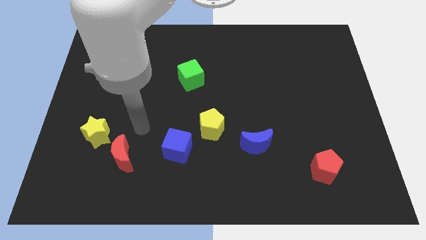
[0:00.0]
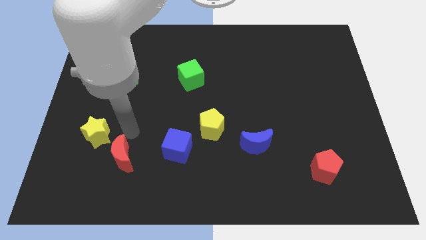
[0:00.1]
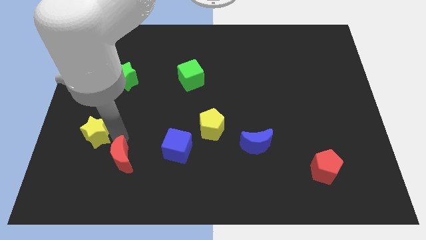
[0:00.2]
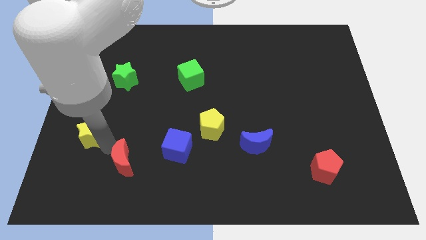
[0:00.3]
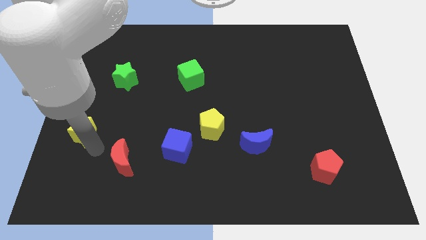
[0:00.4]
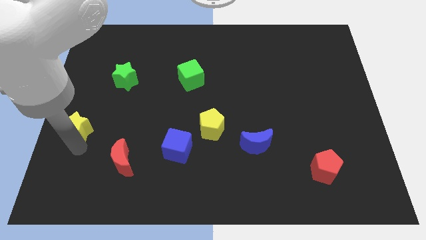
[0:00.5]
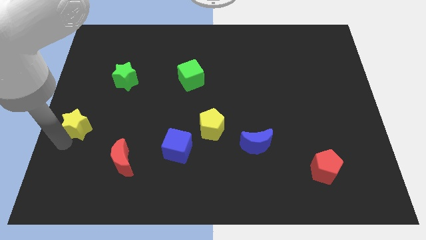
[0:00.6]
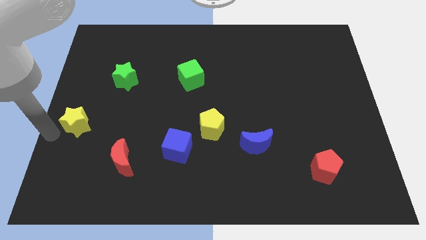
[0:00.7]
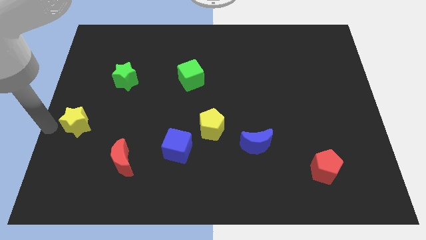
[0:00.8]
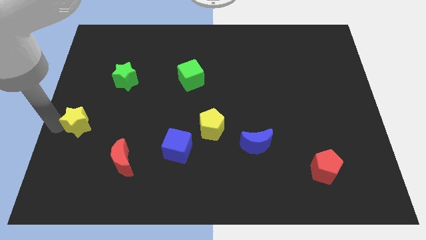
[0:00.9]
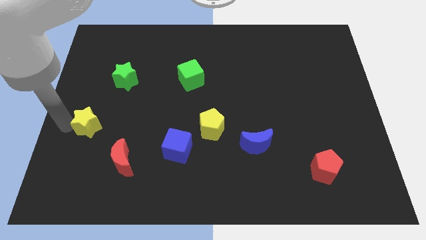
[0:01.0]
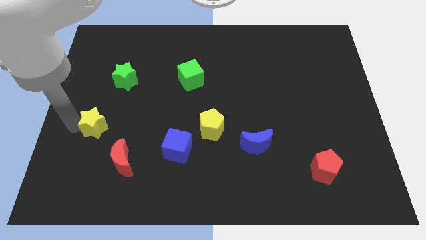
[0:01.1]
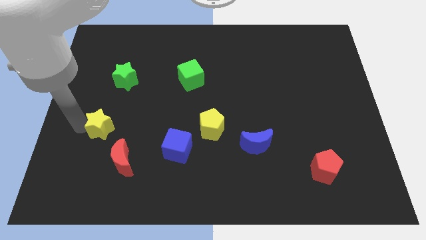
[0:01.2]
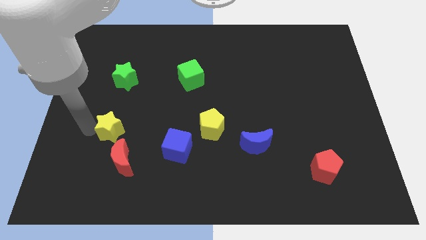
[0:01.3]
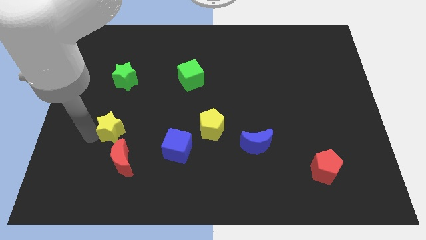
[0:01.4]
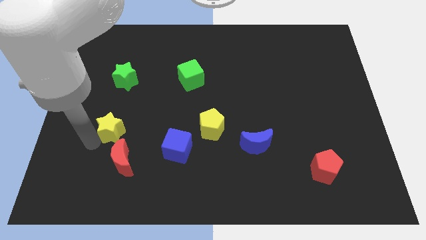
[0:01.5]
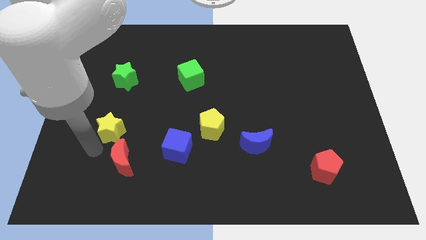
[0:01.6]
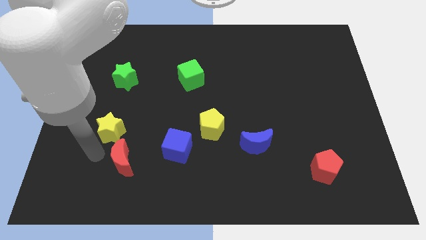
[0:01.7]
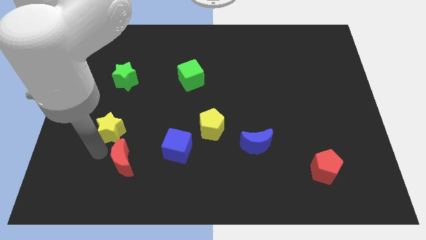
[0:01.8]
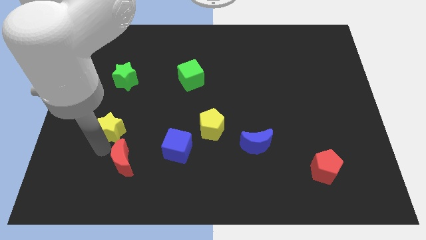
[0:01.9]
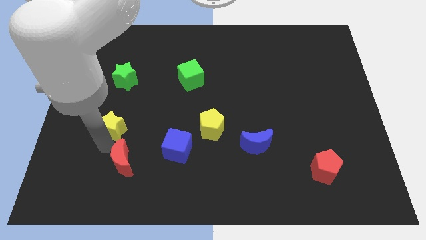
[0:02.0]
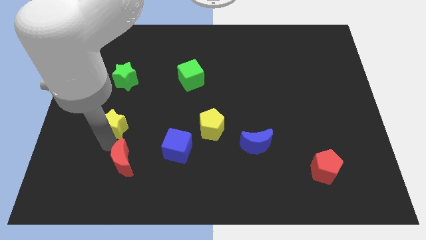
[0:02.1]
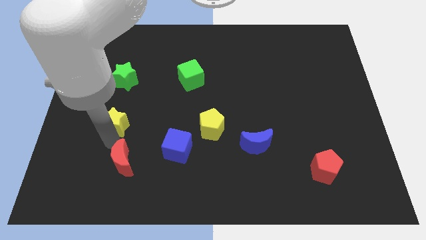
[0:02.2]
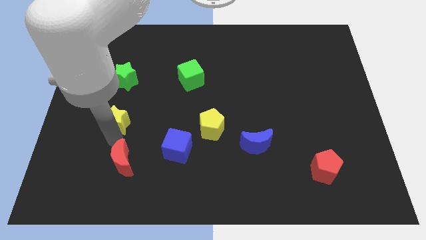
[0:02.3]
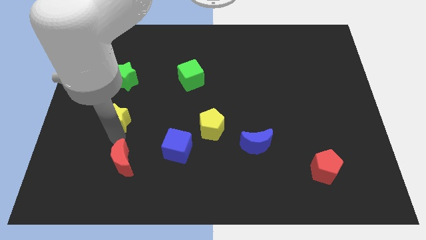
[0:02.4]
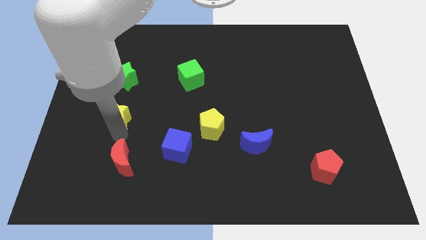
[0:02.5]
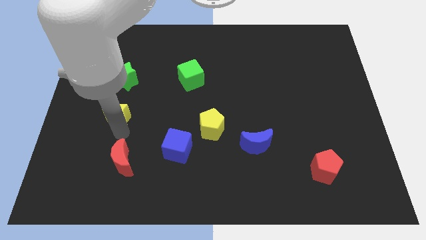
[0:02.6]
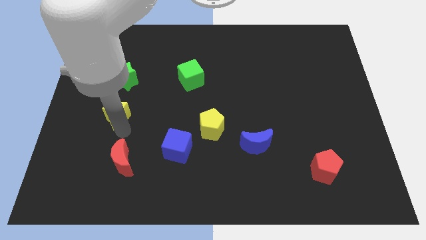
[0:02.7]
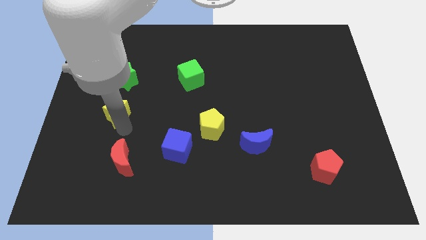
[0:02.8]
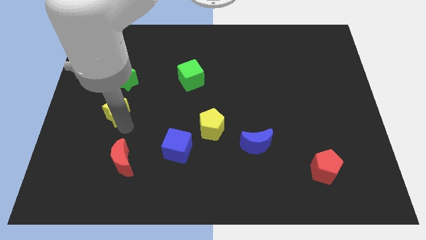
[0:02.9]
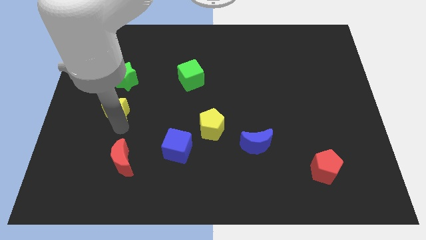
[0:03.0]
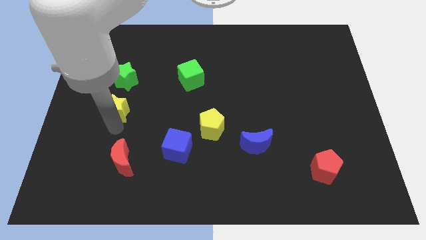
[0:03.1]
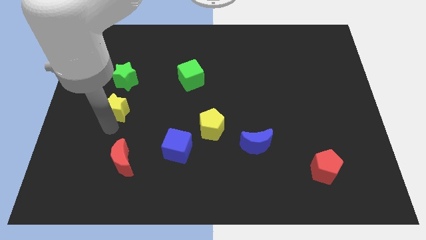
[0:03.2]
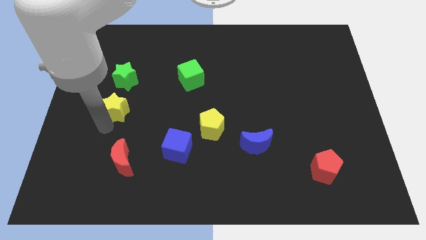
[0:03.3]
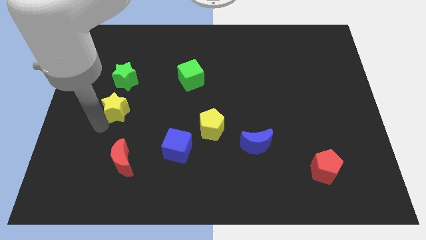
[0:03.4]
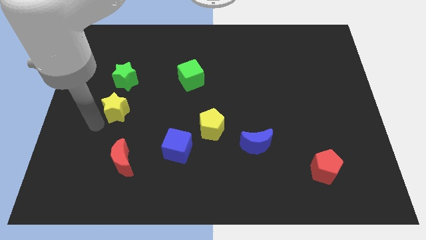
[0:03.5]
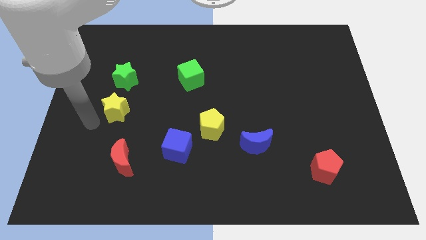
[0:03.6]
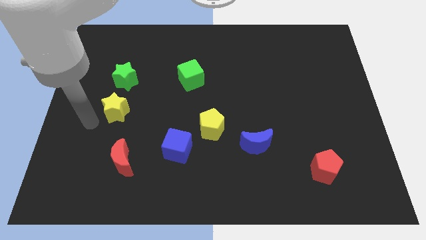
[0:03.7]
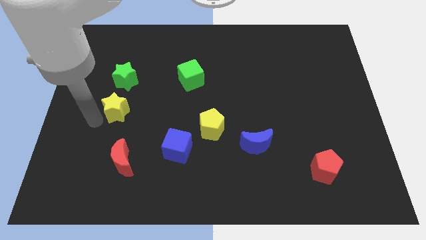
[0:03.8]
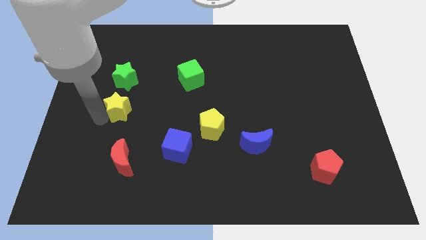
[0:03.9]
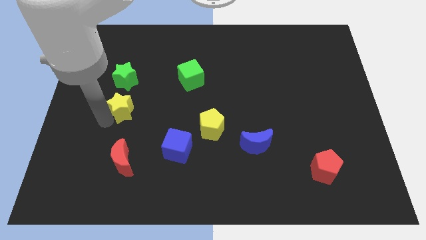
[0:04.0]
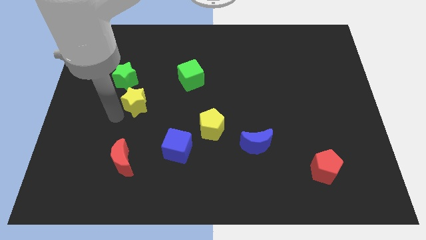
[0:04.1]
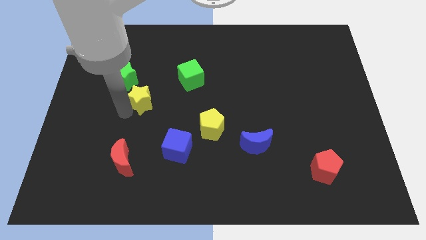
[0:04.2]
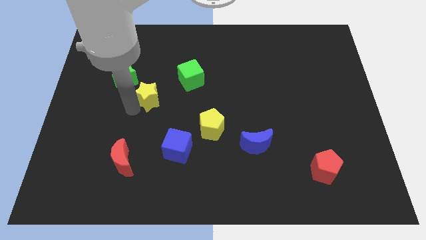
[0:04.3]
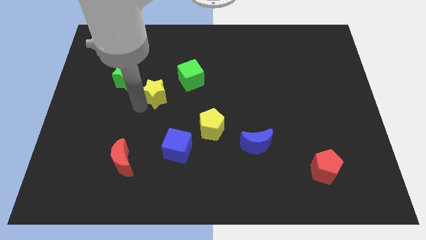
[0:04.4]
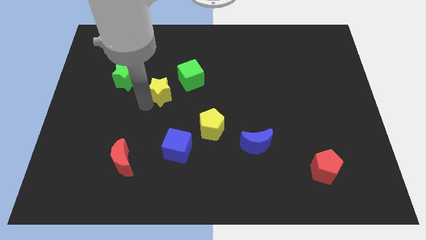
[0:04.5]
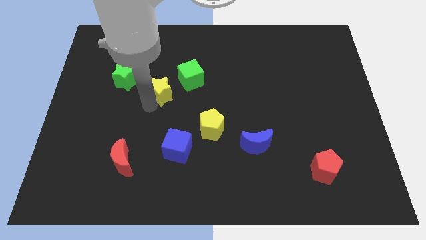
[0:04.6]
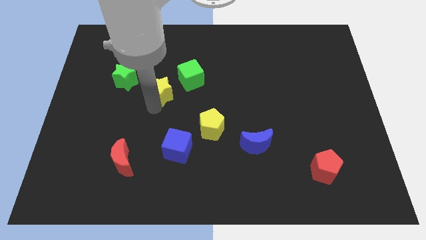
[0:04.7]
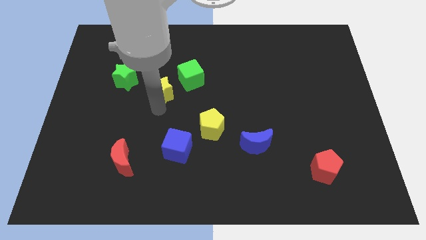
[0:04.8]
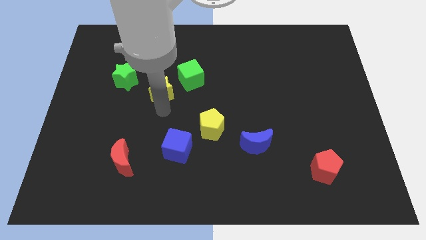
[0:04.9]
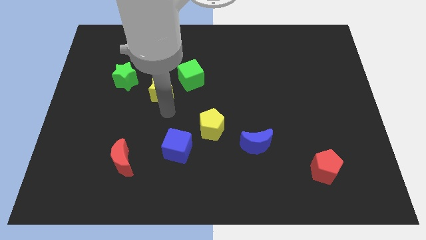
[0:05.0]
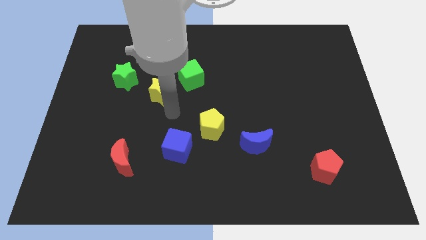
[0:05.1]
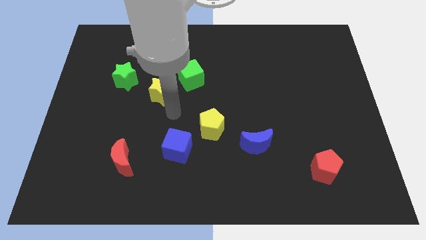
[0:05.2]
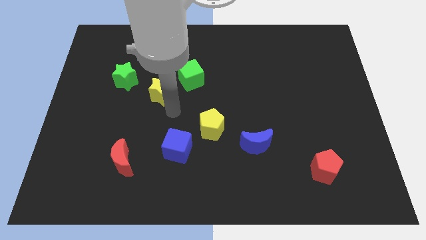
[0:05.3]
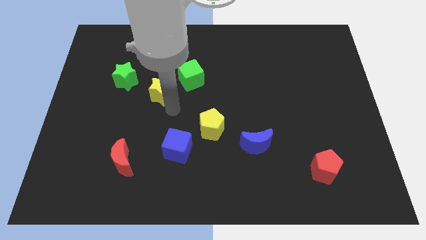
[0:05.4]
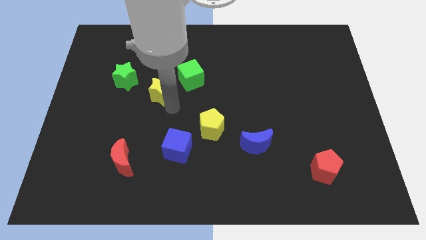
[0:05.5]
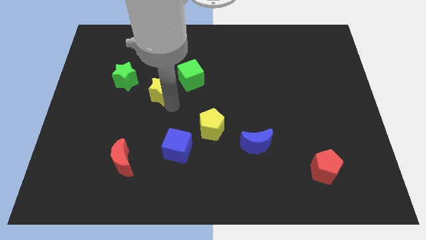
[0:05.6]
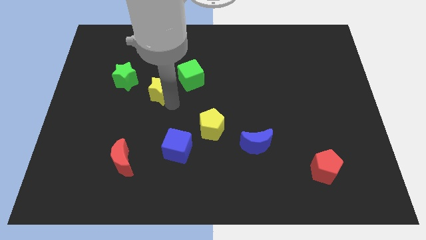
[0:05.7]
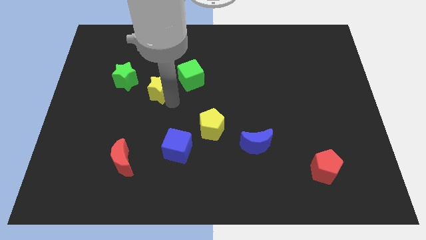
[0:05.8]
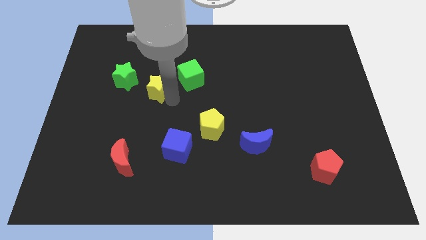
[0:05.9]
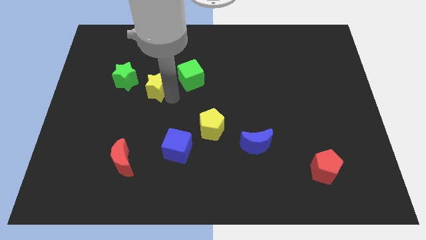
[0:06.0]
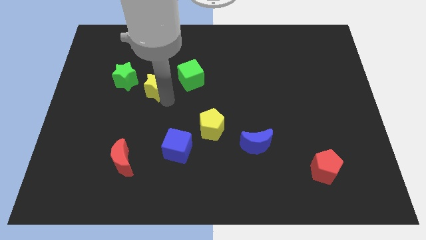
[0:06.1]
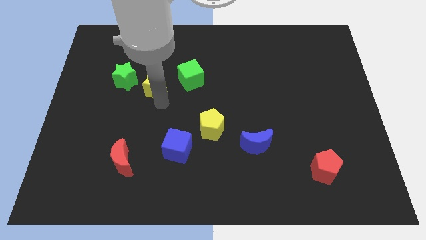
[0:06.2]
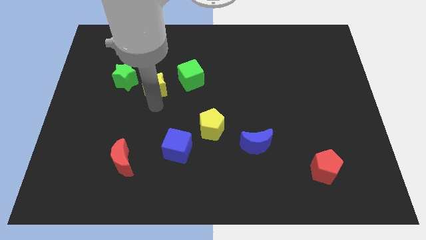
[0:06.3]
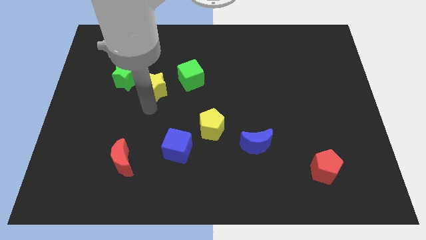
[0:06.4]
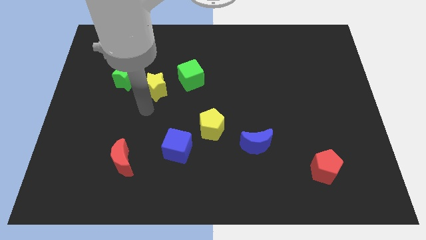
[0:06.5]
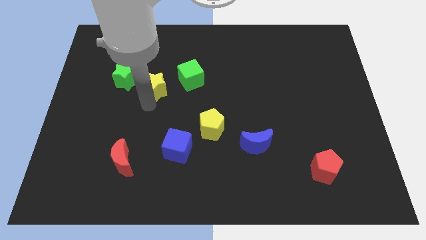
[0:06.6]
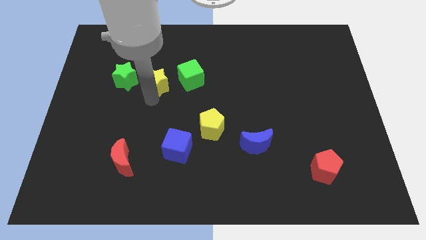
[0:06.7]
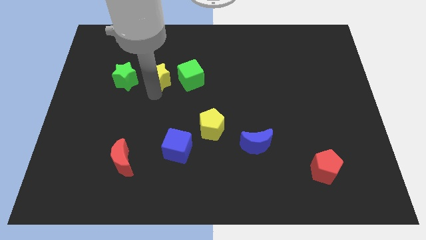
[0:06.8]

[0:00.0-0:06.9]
move the yellow star upwards and right diagonally

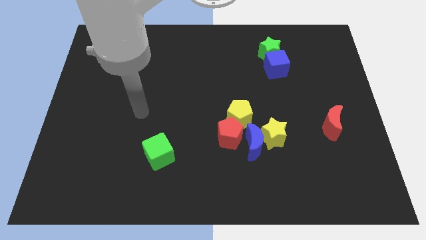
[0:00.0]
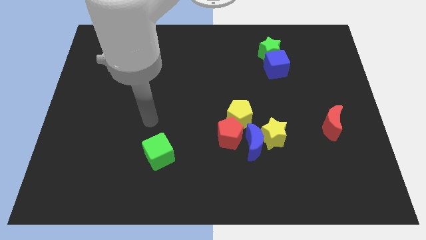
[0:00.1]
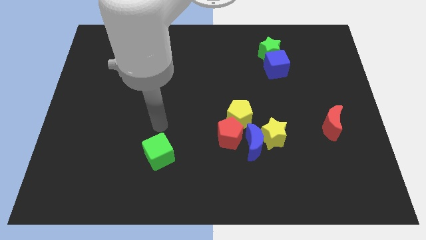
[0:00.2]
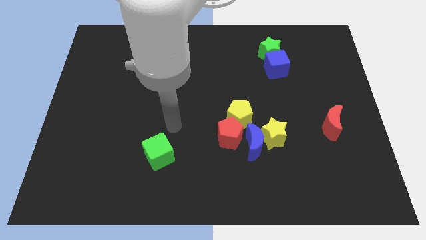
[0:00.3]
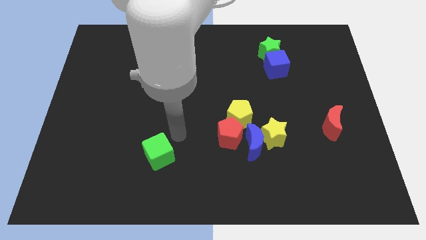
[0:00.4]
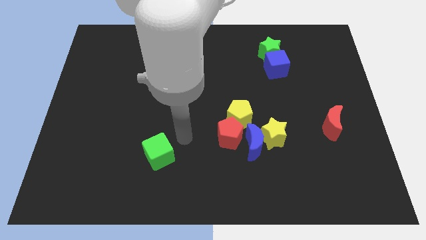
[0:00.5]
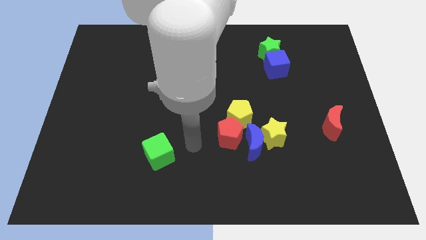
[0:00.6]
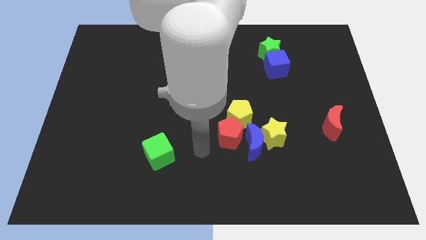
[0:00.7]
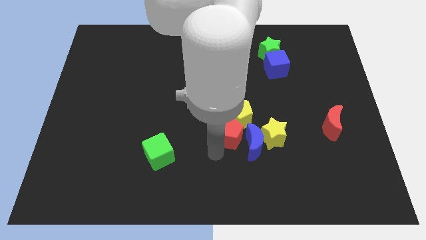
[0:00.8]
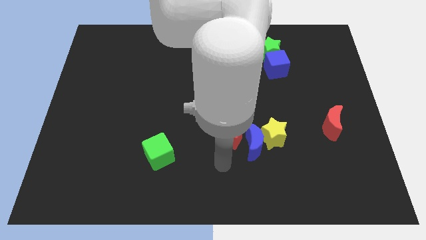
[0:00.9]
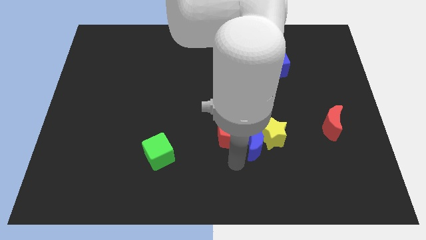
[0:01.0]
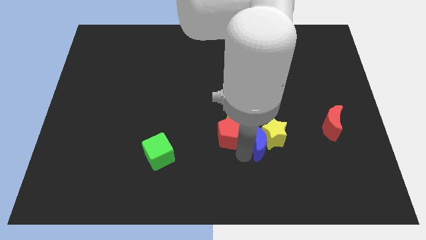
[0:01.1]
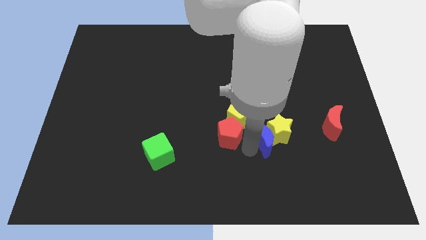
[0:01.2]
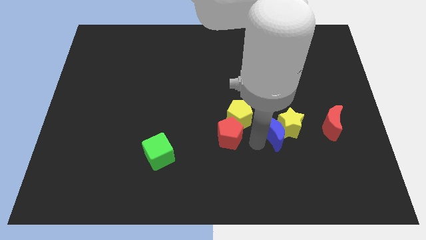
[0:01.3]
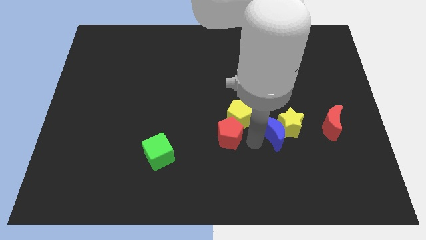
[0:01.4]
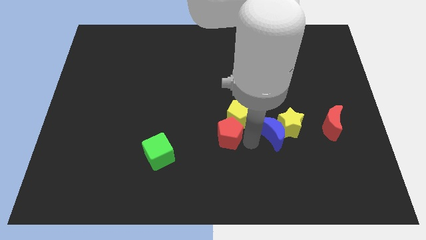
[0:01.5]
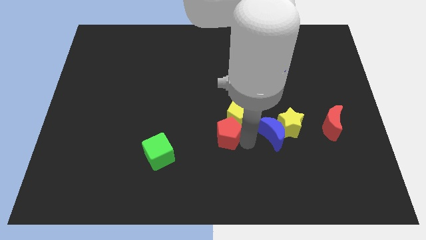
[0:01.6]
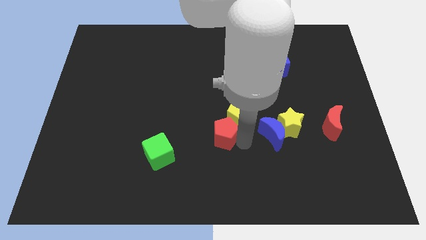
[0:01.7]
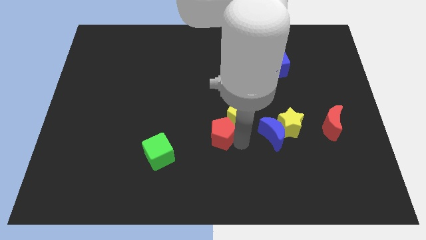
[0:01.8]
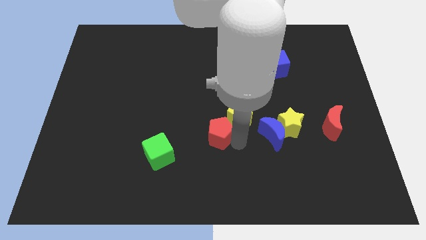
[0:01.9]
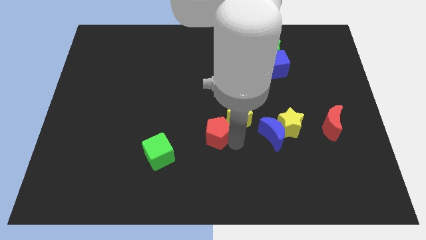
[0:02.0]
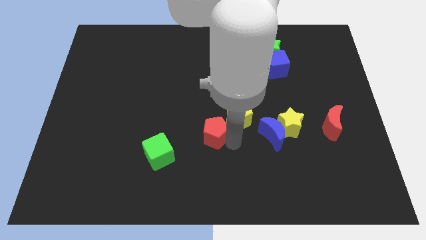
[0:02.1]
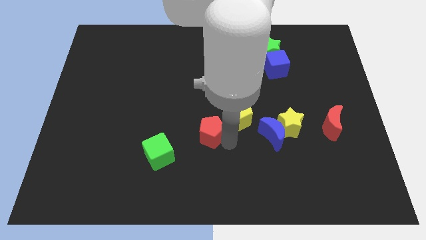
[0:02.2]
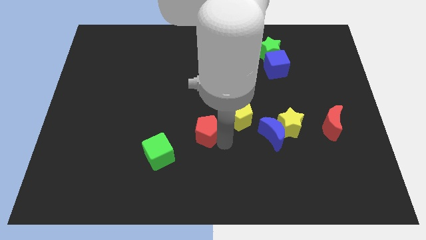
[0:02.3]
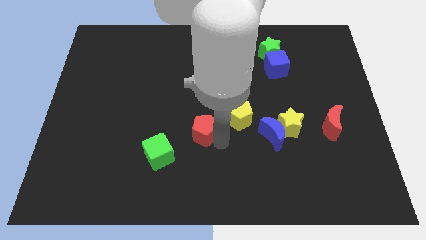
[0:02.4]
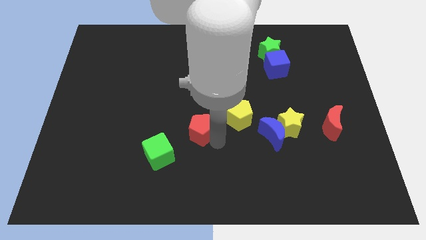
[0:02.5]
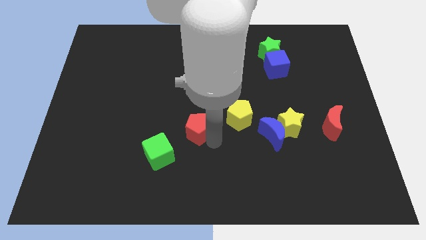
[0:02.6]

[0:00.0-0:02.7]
slightly push the red pentagon to the left
